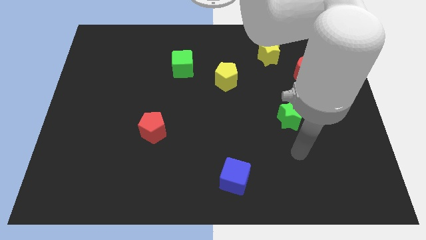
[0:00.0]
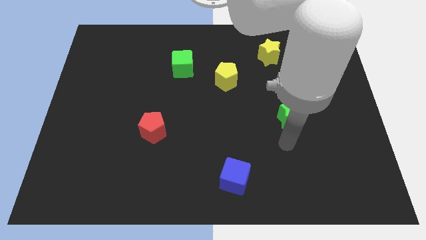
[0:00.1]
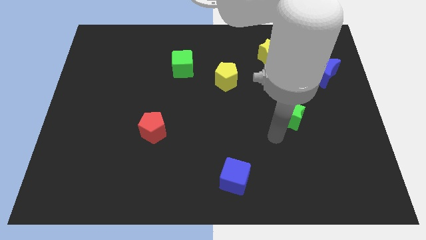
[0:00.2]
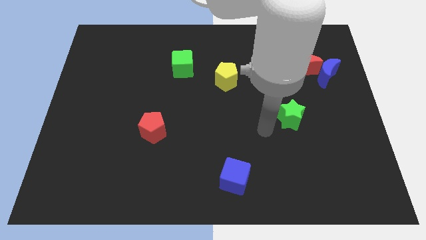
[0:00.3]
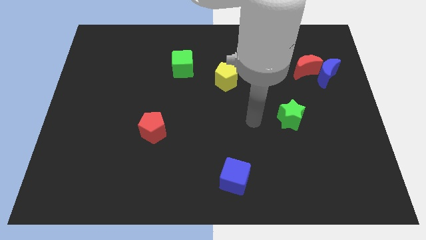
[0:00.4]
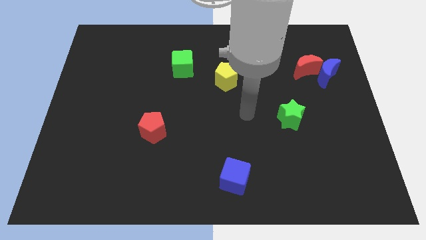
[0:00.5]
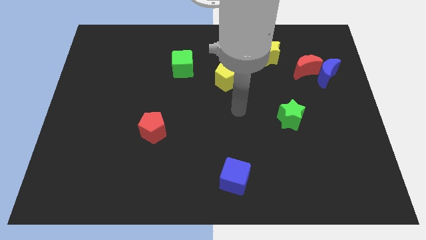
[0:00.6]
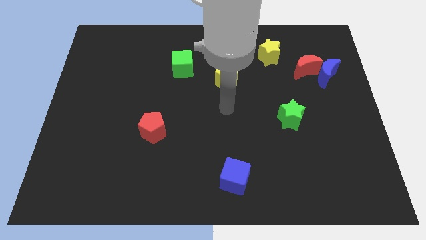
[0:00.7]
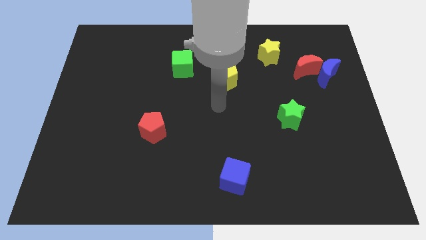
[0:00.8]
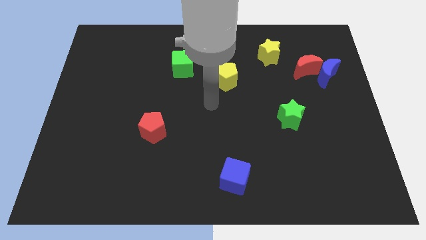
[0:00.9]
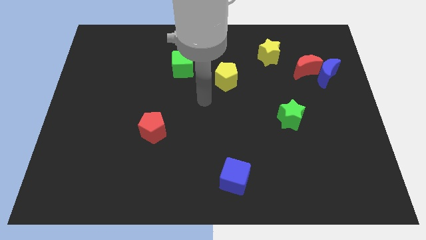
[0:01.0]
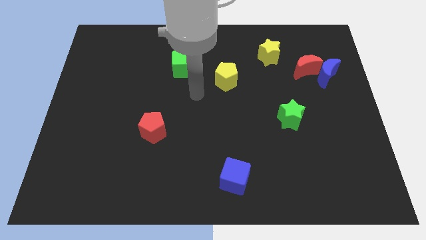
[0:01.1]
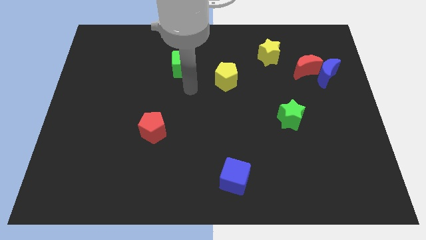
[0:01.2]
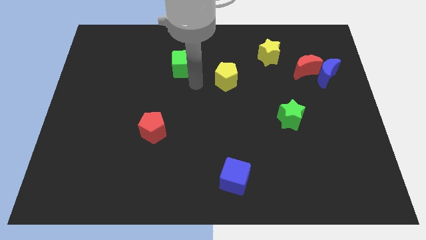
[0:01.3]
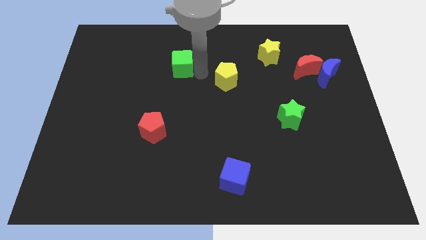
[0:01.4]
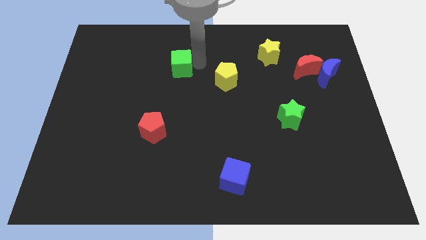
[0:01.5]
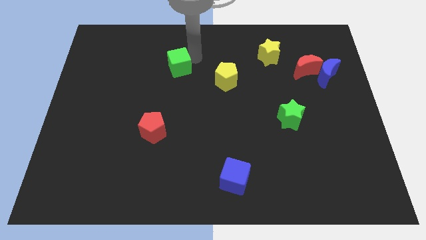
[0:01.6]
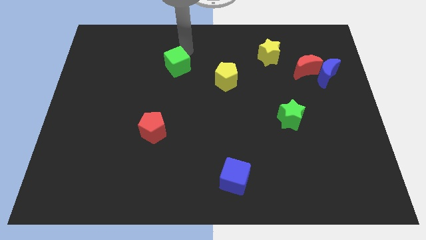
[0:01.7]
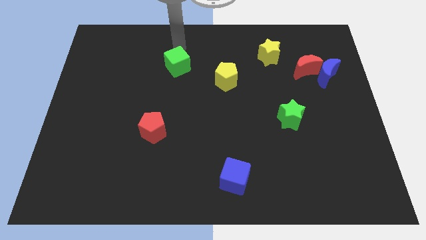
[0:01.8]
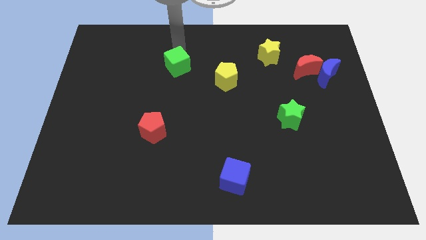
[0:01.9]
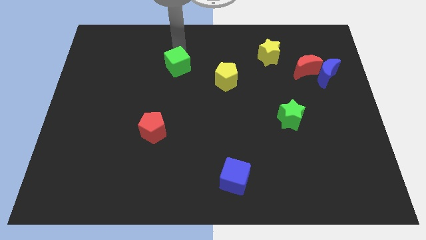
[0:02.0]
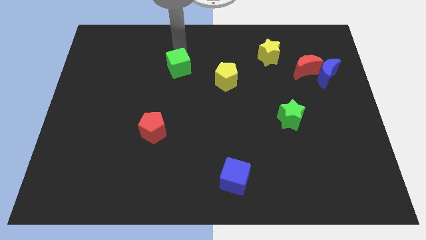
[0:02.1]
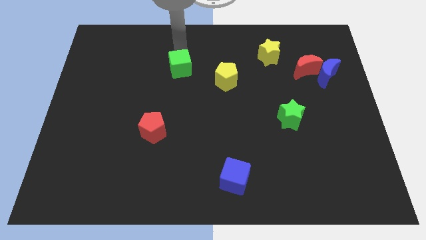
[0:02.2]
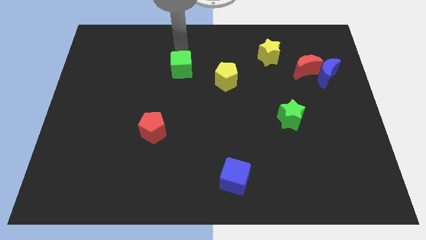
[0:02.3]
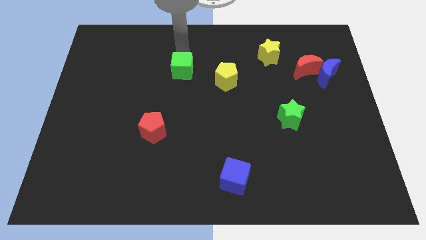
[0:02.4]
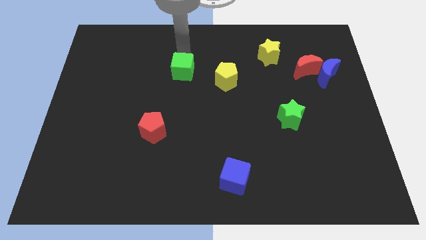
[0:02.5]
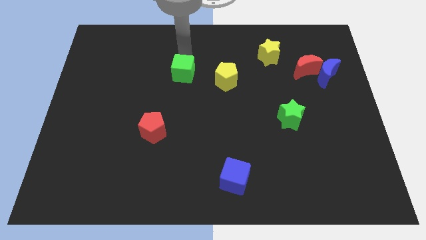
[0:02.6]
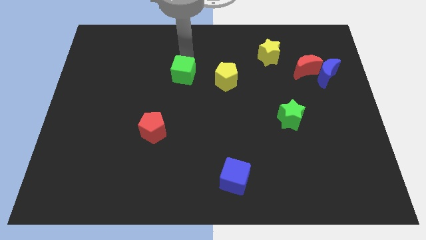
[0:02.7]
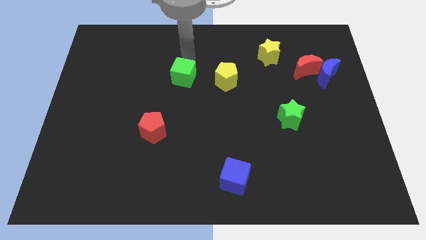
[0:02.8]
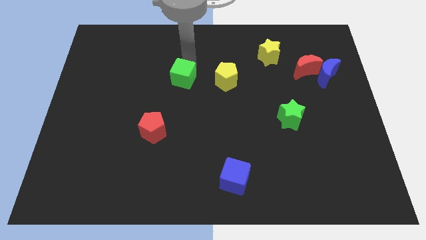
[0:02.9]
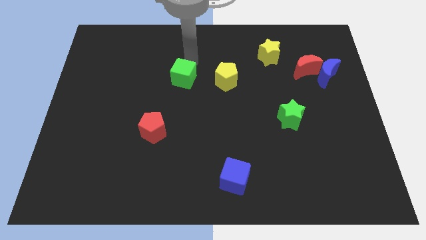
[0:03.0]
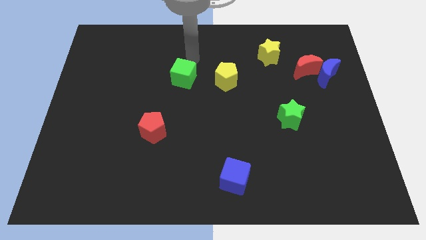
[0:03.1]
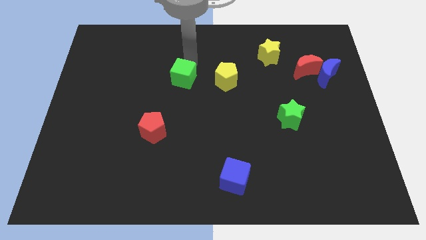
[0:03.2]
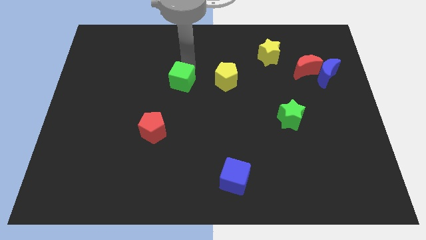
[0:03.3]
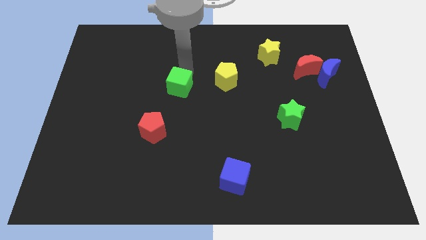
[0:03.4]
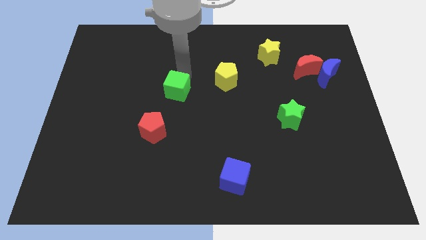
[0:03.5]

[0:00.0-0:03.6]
slightly push the green cube down

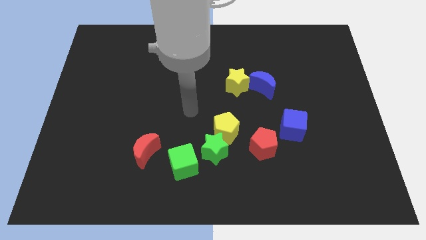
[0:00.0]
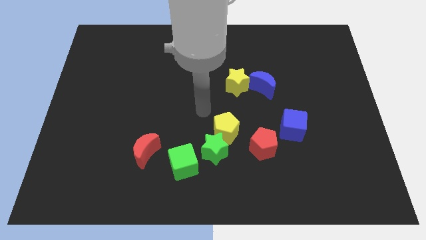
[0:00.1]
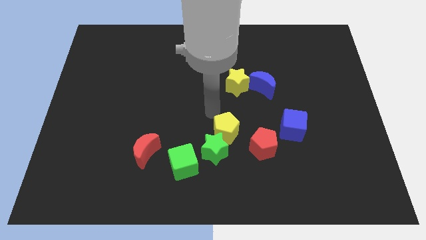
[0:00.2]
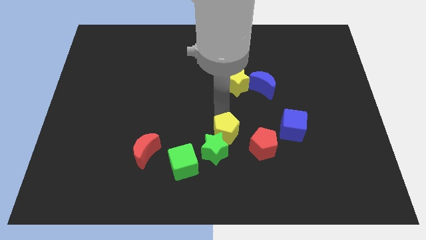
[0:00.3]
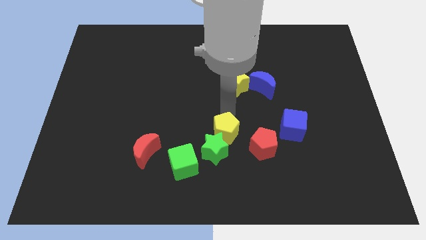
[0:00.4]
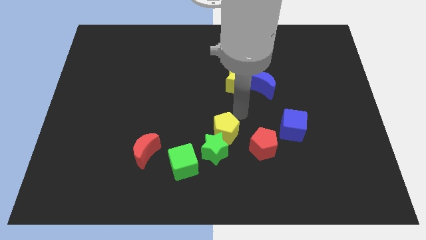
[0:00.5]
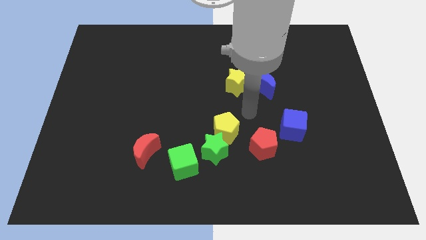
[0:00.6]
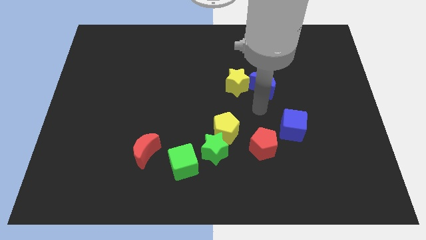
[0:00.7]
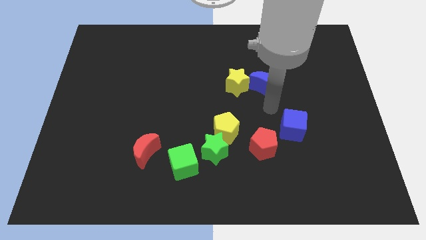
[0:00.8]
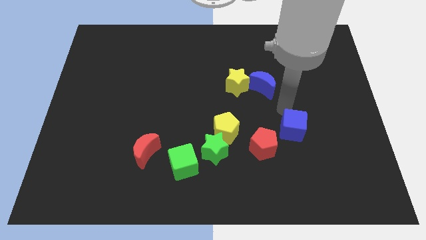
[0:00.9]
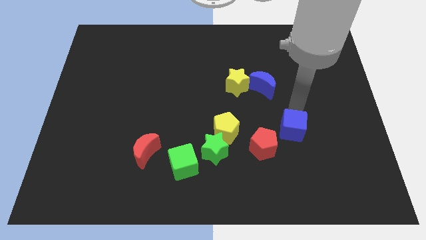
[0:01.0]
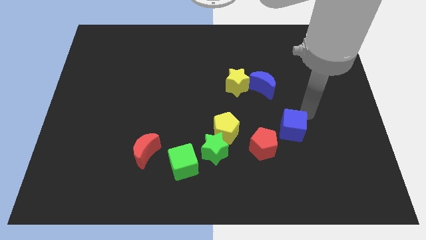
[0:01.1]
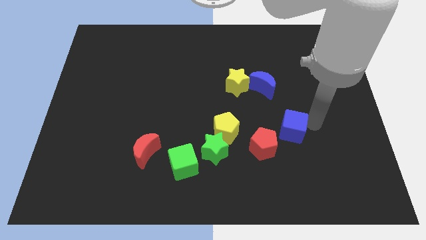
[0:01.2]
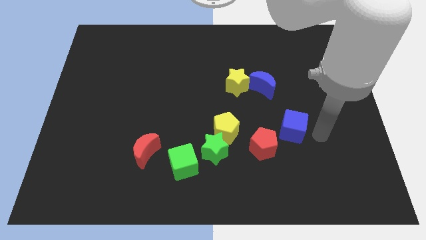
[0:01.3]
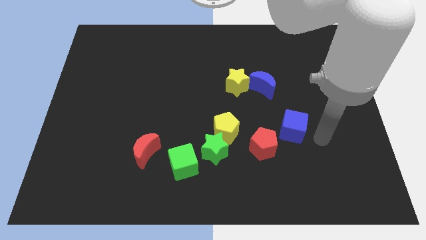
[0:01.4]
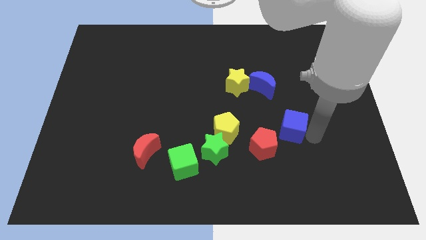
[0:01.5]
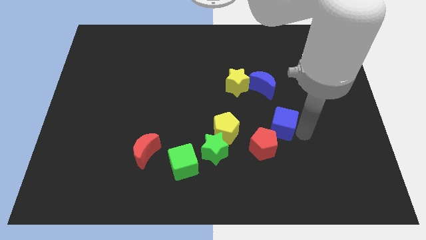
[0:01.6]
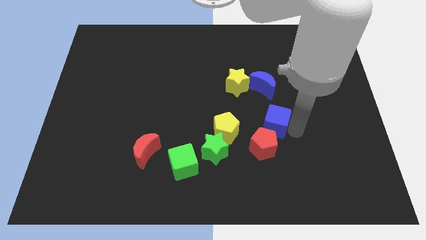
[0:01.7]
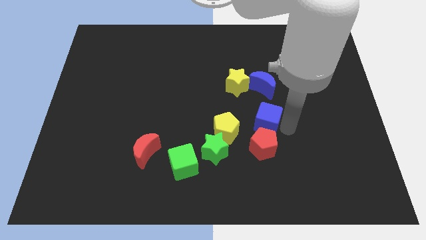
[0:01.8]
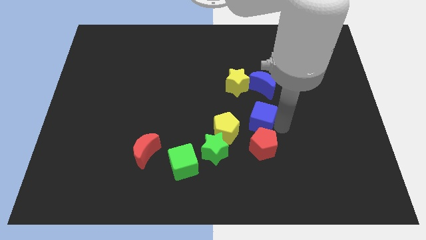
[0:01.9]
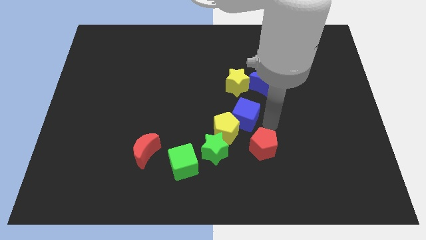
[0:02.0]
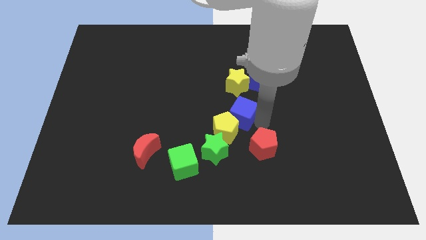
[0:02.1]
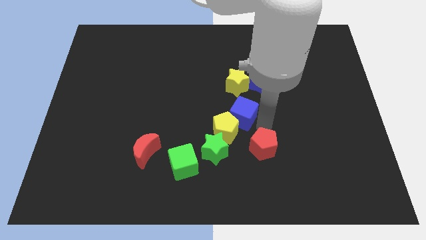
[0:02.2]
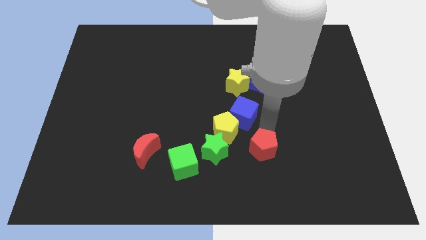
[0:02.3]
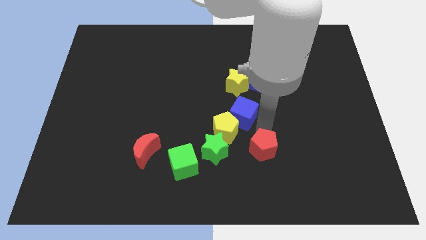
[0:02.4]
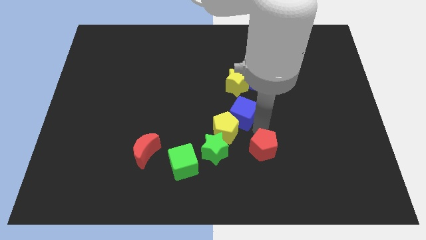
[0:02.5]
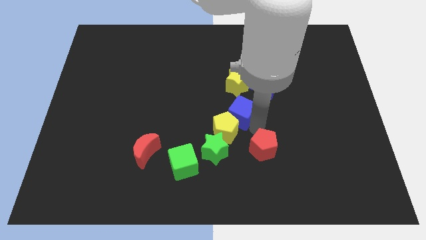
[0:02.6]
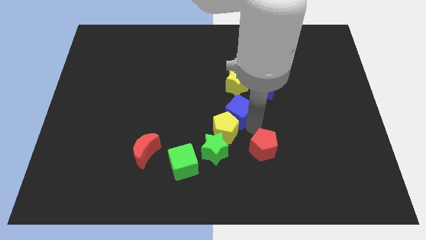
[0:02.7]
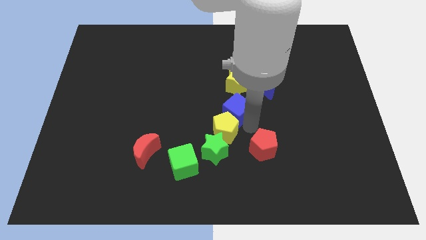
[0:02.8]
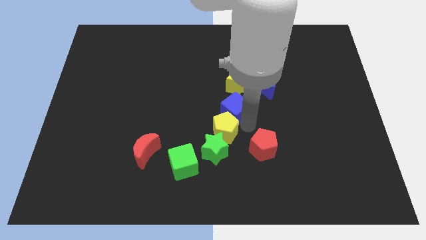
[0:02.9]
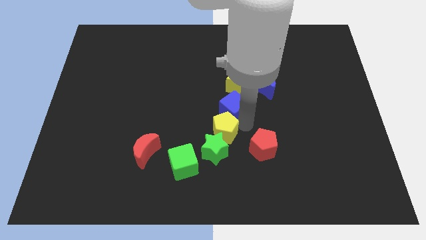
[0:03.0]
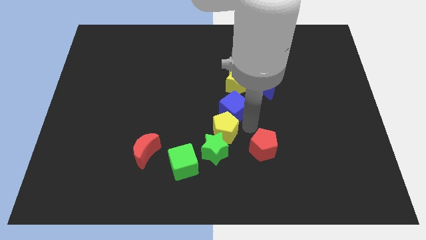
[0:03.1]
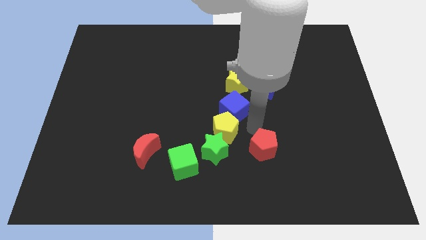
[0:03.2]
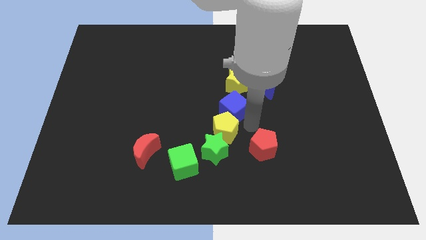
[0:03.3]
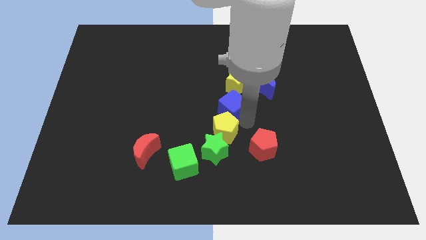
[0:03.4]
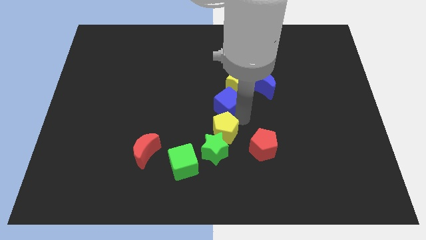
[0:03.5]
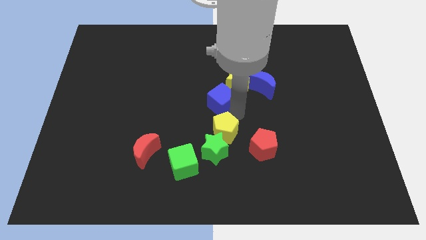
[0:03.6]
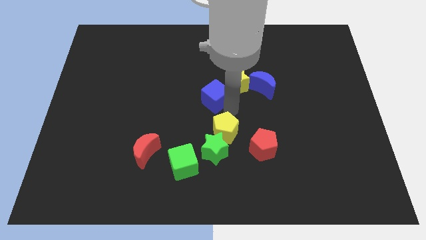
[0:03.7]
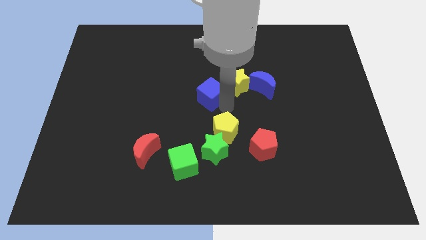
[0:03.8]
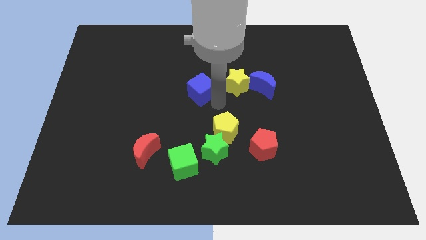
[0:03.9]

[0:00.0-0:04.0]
move the blue cube up and then to the left

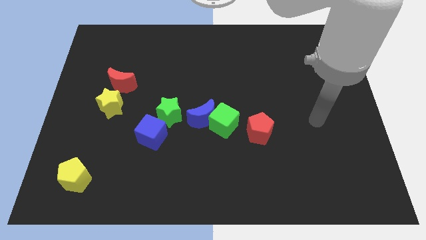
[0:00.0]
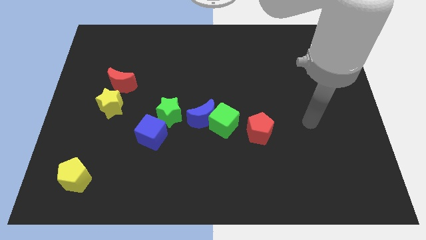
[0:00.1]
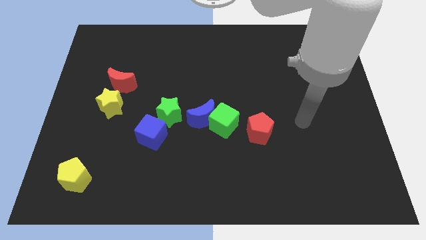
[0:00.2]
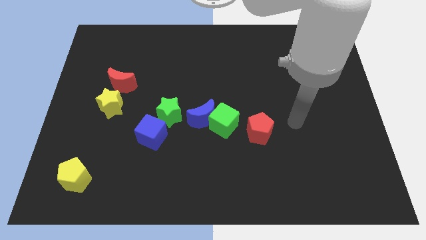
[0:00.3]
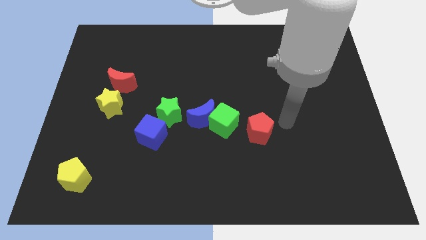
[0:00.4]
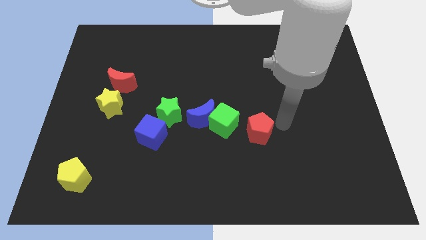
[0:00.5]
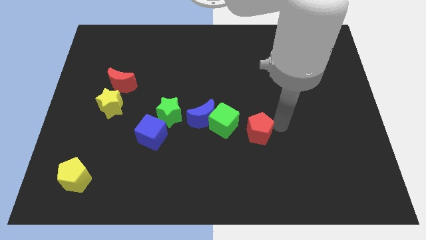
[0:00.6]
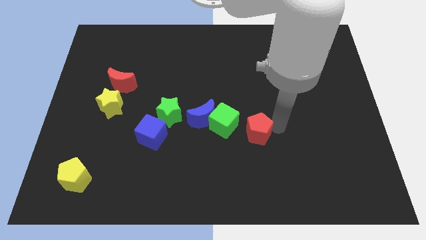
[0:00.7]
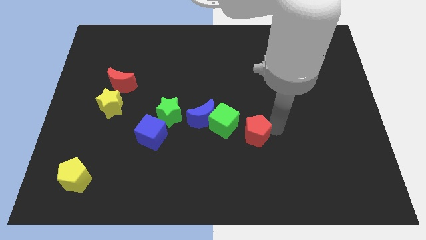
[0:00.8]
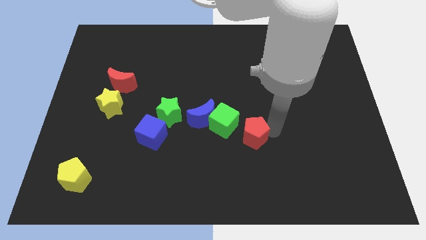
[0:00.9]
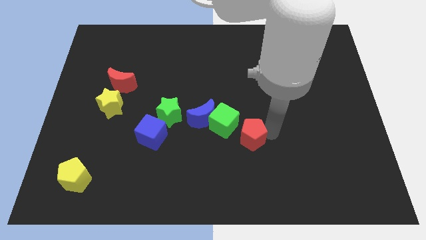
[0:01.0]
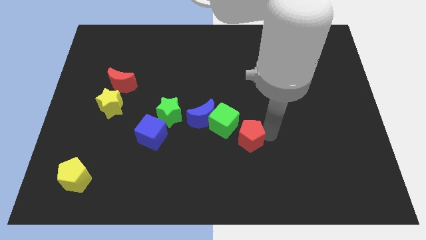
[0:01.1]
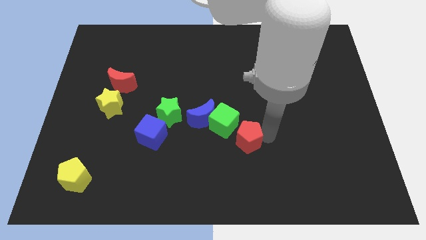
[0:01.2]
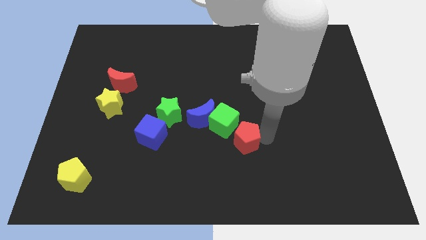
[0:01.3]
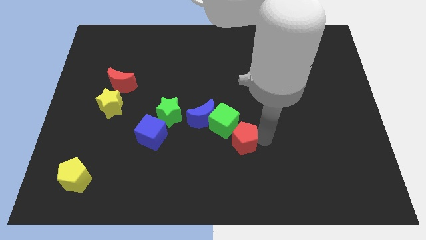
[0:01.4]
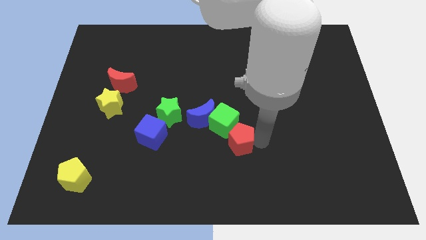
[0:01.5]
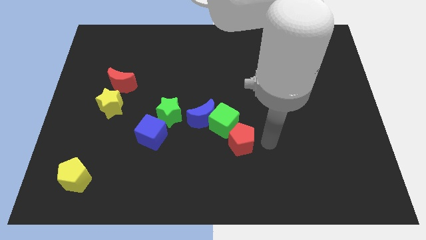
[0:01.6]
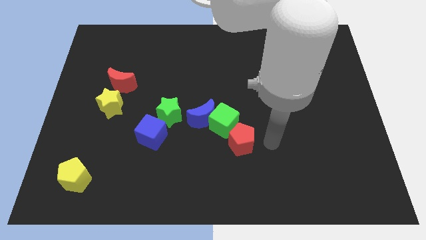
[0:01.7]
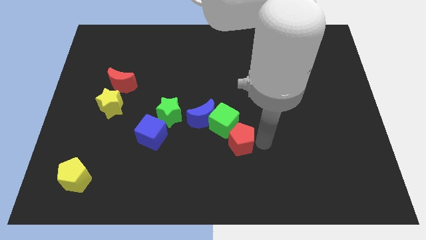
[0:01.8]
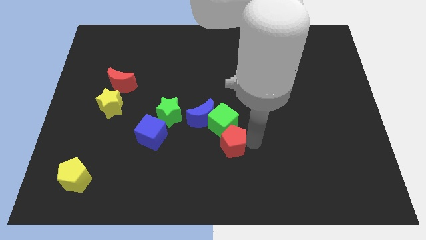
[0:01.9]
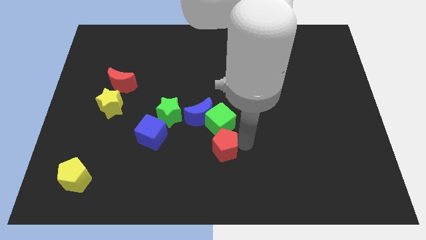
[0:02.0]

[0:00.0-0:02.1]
slide the red pentagon to the left a bit
